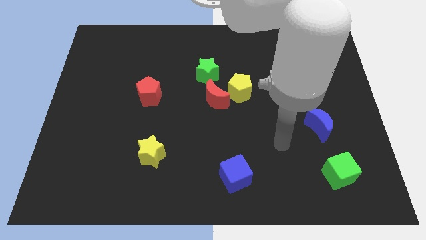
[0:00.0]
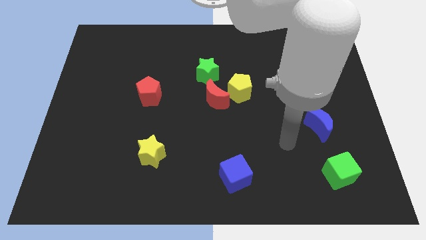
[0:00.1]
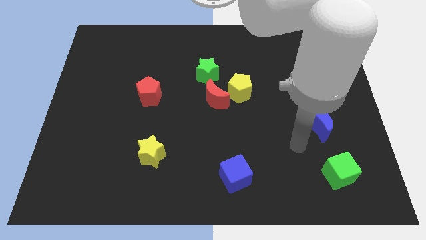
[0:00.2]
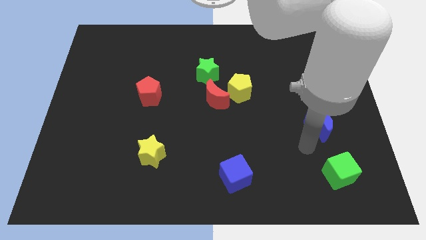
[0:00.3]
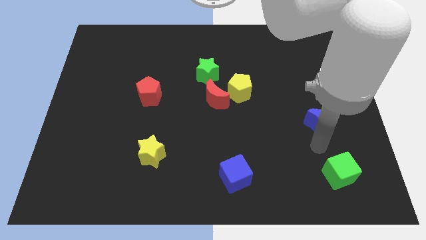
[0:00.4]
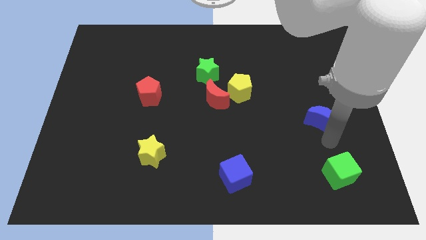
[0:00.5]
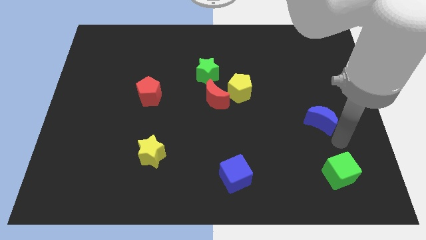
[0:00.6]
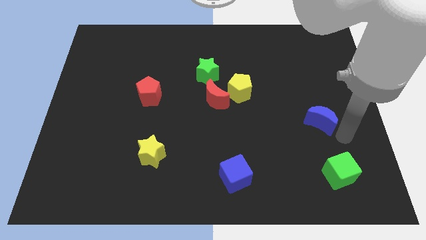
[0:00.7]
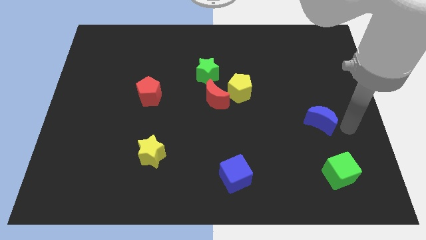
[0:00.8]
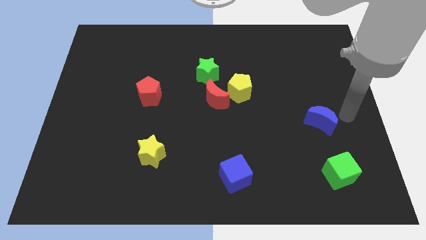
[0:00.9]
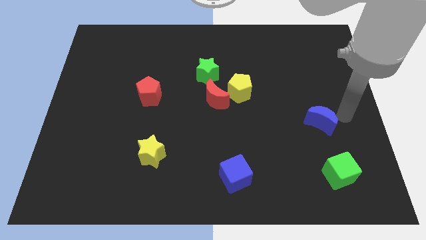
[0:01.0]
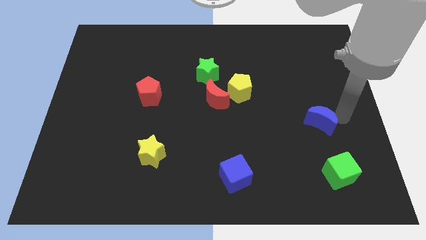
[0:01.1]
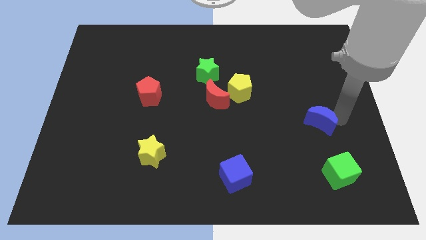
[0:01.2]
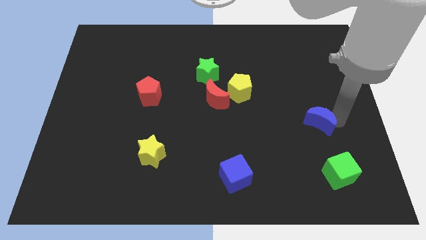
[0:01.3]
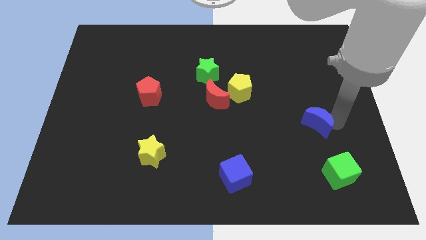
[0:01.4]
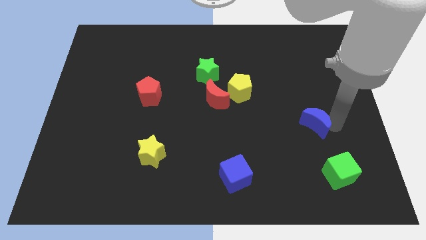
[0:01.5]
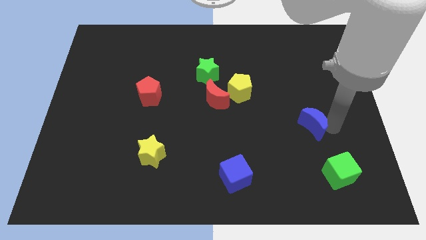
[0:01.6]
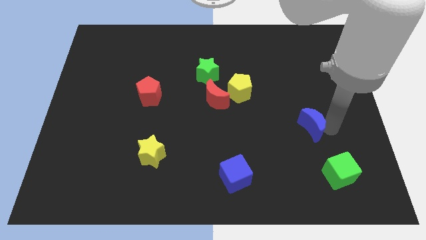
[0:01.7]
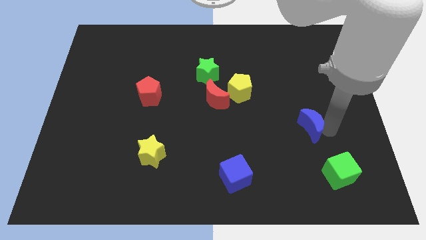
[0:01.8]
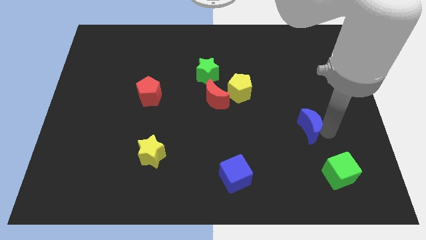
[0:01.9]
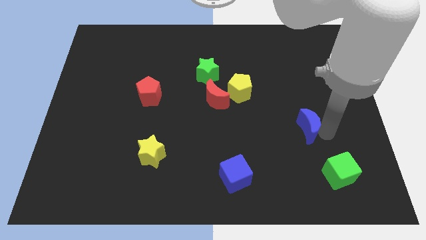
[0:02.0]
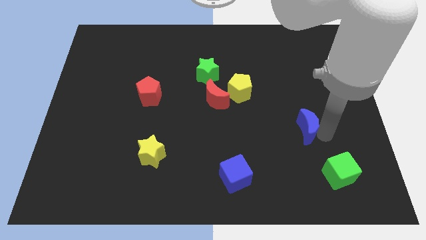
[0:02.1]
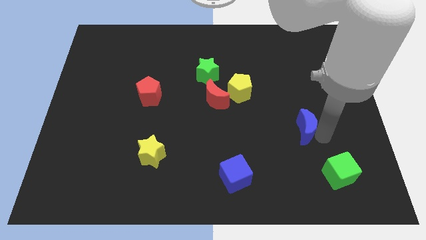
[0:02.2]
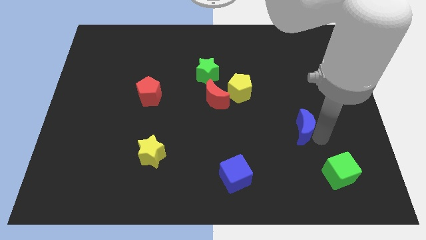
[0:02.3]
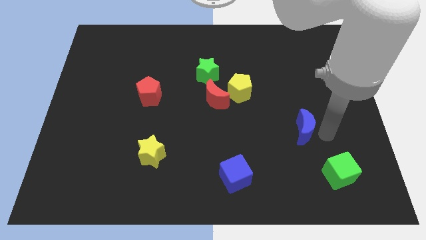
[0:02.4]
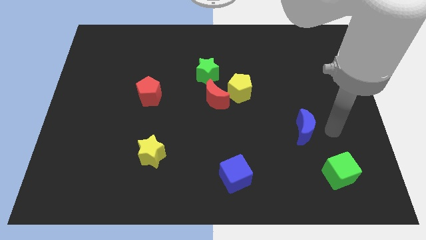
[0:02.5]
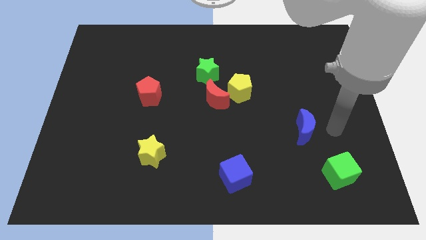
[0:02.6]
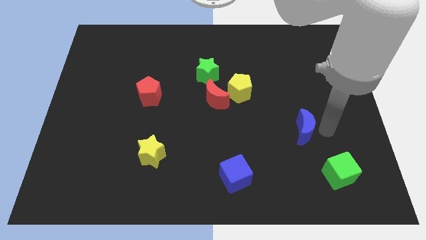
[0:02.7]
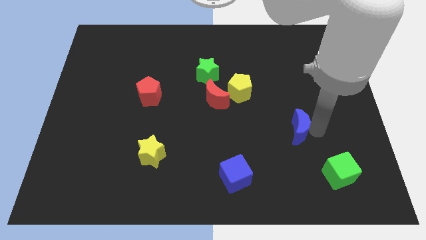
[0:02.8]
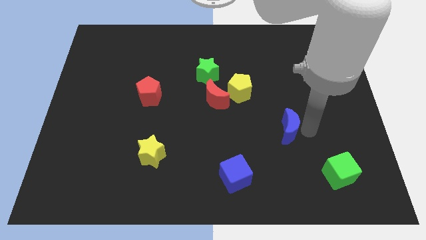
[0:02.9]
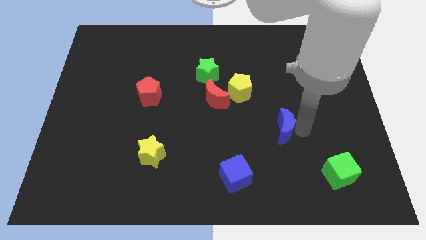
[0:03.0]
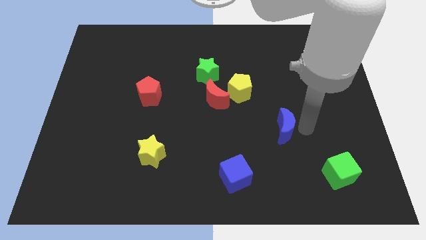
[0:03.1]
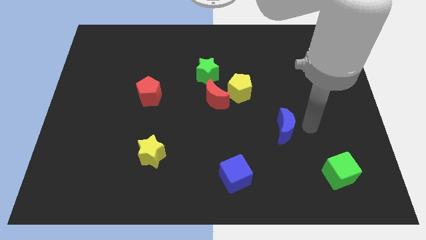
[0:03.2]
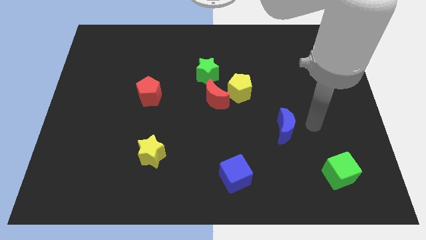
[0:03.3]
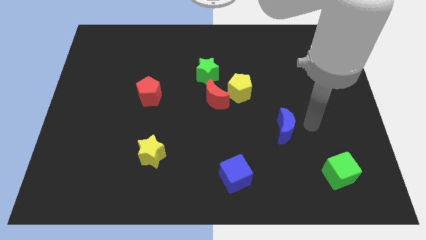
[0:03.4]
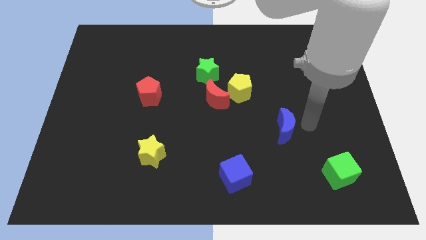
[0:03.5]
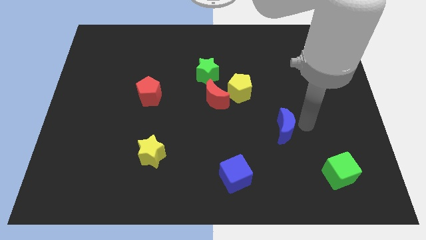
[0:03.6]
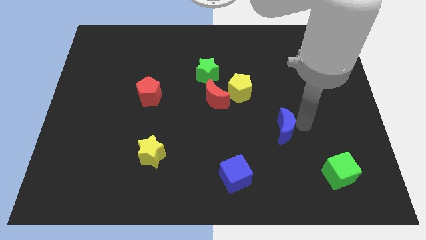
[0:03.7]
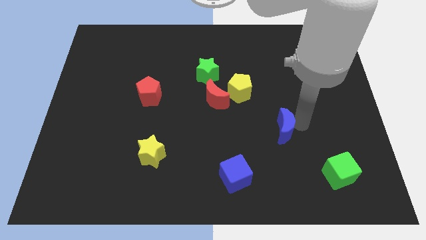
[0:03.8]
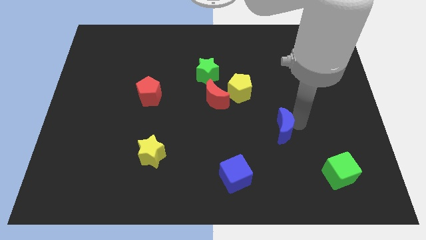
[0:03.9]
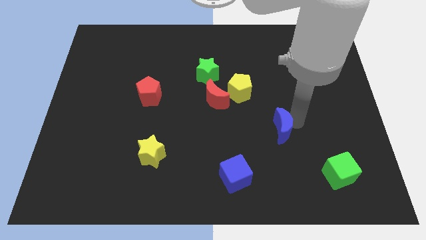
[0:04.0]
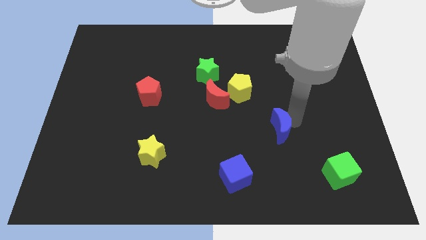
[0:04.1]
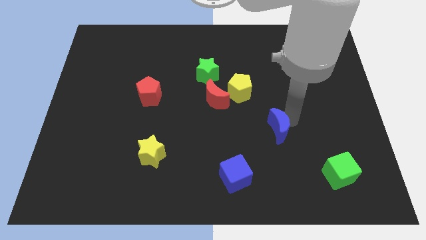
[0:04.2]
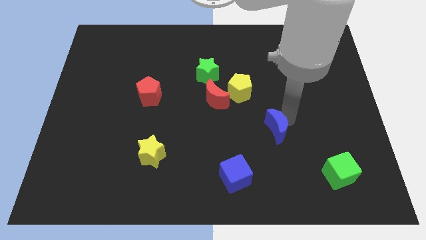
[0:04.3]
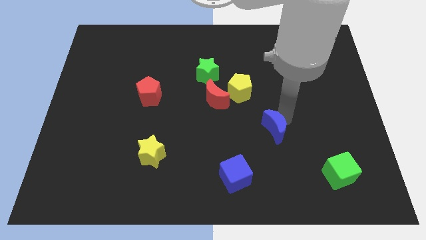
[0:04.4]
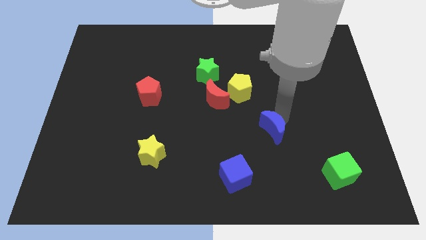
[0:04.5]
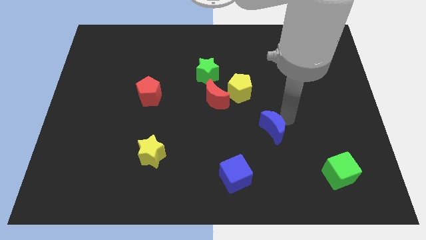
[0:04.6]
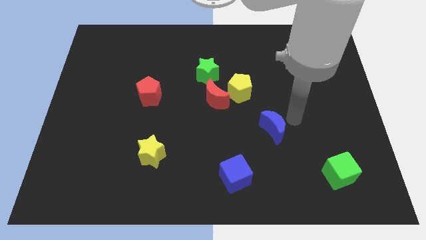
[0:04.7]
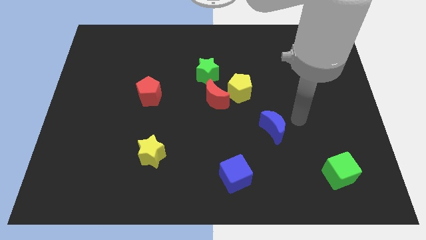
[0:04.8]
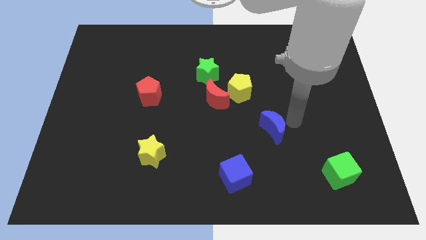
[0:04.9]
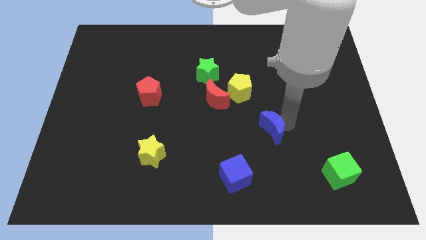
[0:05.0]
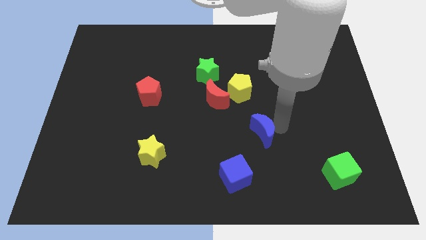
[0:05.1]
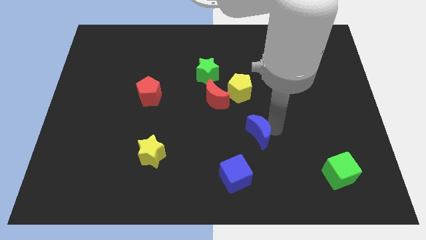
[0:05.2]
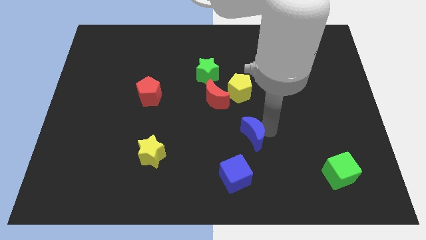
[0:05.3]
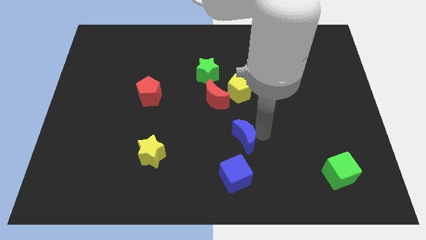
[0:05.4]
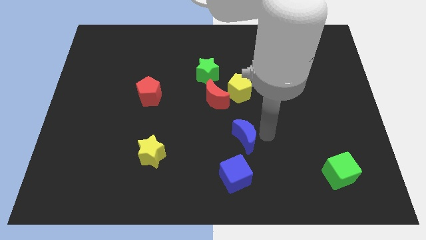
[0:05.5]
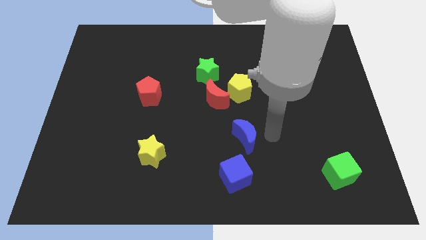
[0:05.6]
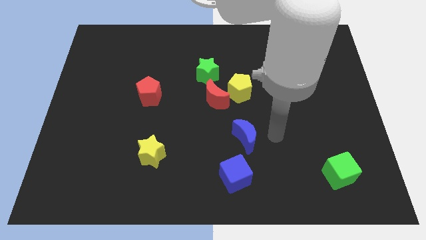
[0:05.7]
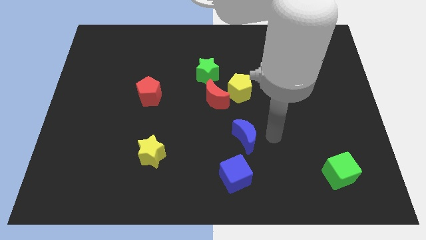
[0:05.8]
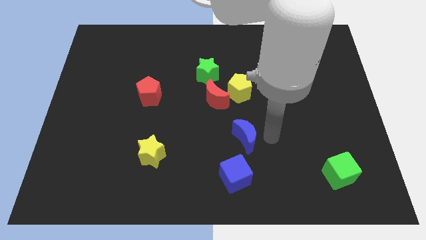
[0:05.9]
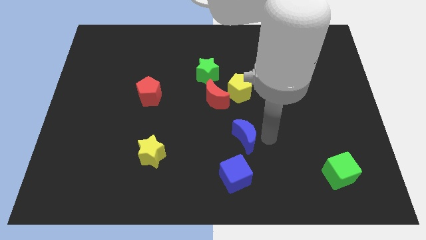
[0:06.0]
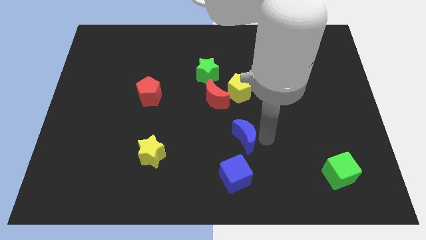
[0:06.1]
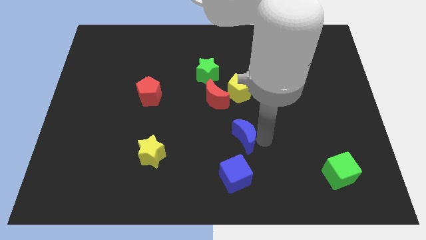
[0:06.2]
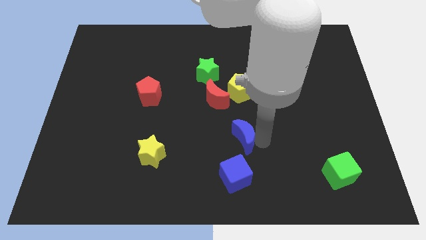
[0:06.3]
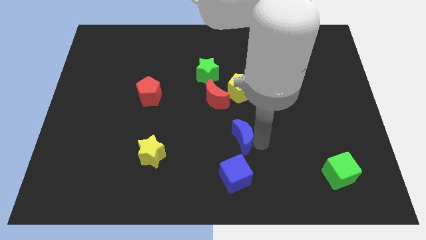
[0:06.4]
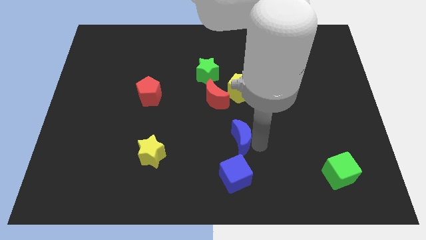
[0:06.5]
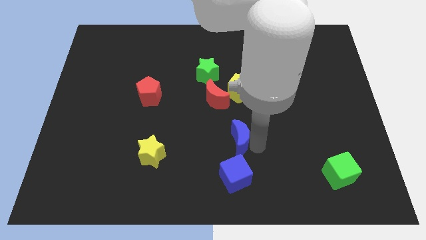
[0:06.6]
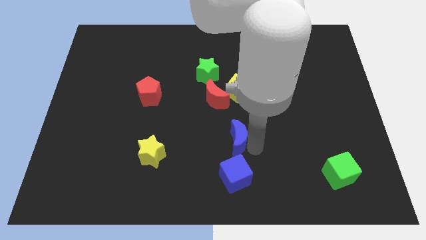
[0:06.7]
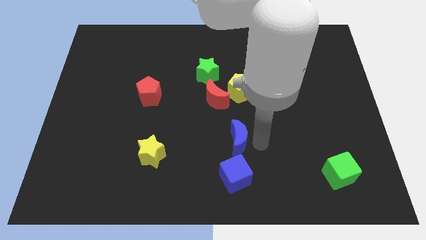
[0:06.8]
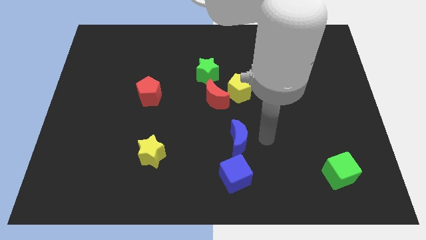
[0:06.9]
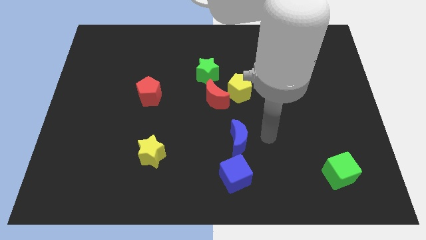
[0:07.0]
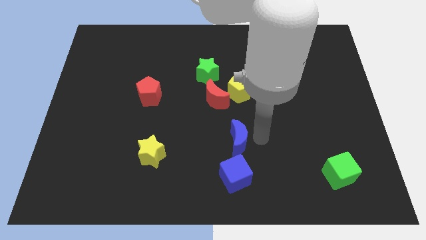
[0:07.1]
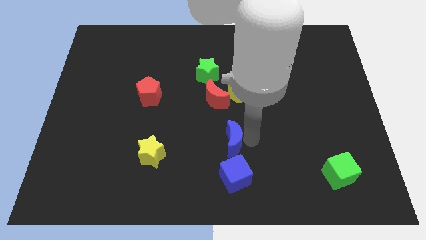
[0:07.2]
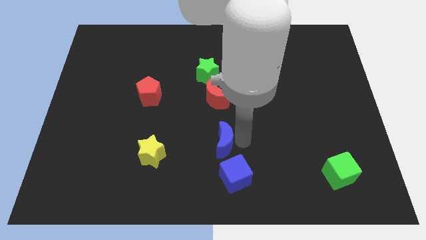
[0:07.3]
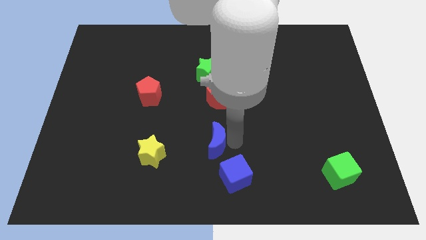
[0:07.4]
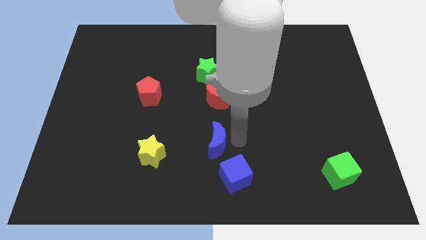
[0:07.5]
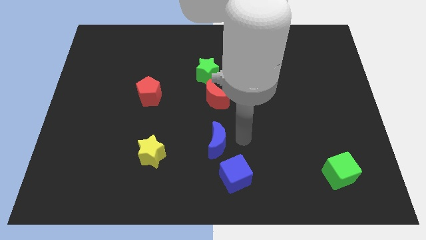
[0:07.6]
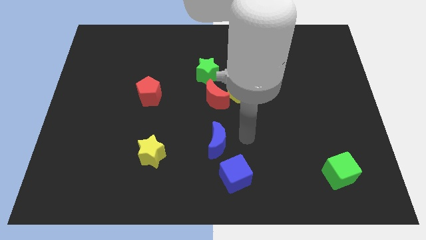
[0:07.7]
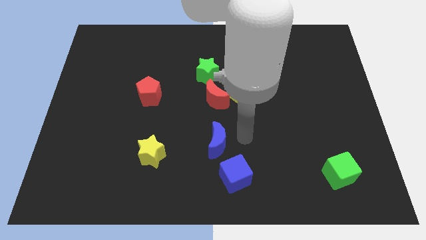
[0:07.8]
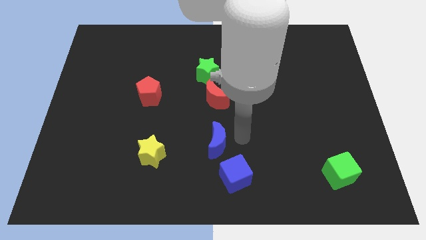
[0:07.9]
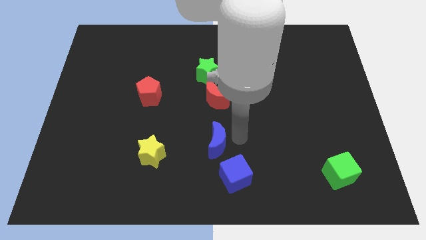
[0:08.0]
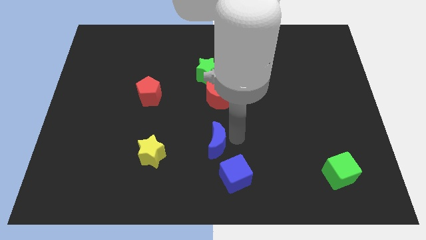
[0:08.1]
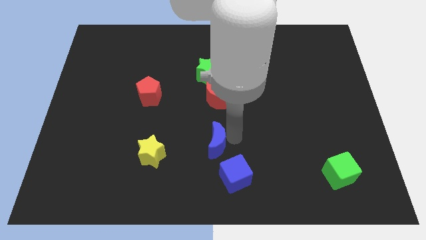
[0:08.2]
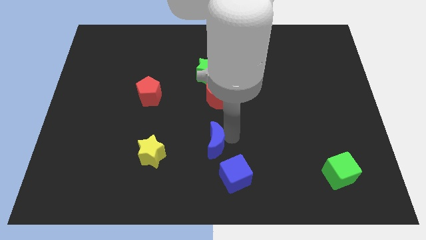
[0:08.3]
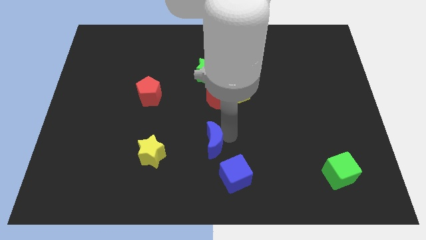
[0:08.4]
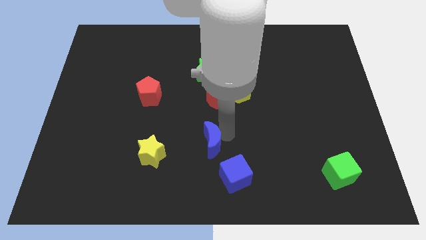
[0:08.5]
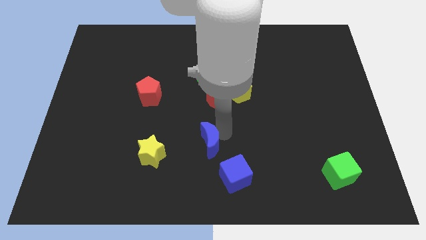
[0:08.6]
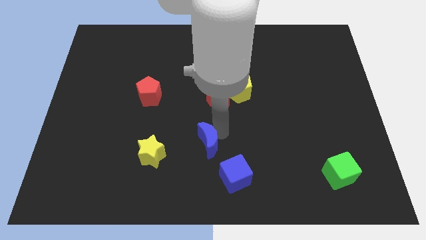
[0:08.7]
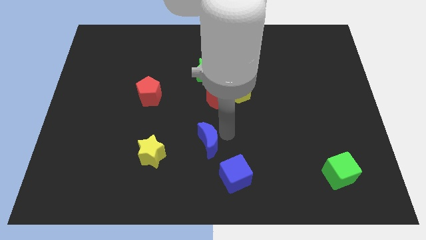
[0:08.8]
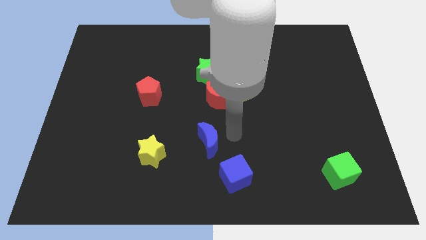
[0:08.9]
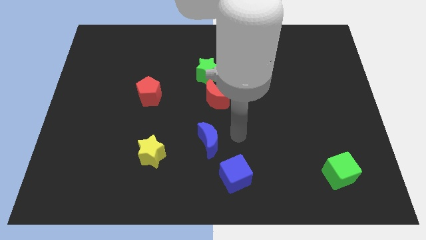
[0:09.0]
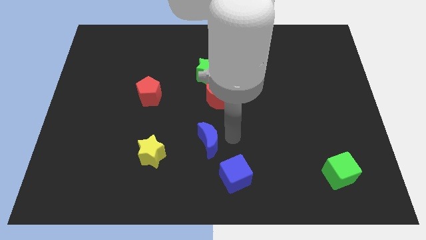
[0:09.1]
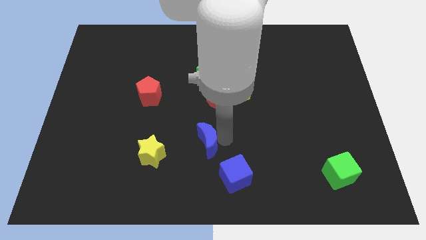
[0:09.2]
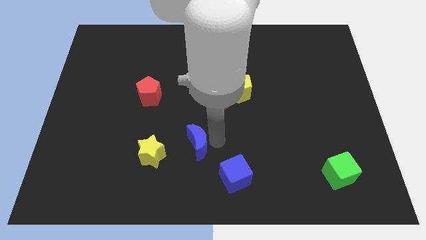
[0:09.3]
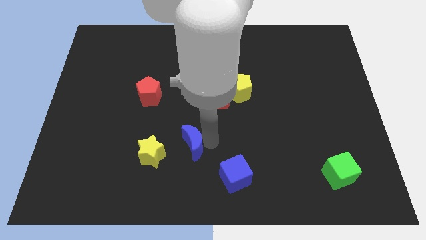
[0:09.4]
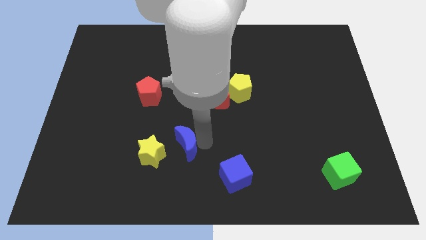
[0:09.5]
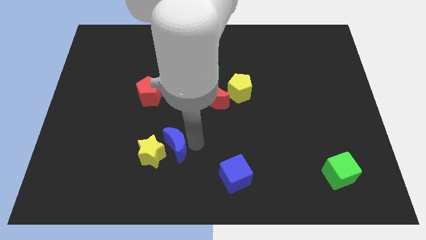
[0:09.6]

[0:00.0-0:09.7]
put the blue moon towards the yellow star
